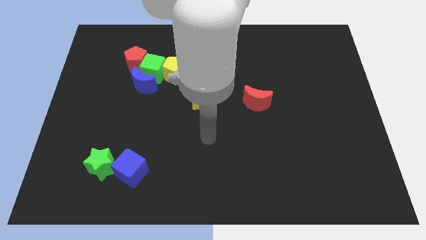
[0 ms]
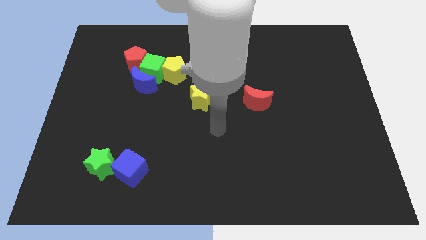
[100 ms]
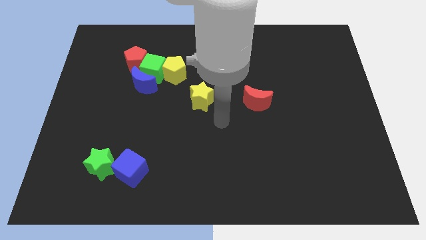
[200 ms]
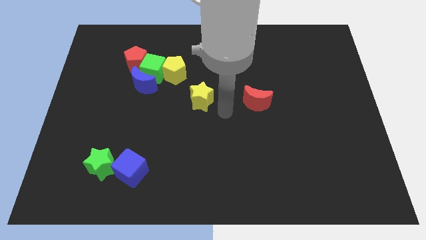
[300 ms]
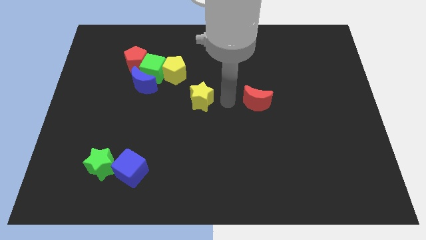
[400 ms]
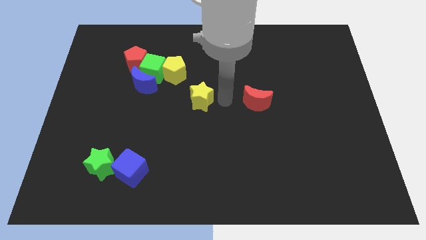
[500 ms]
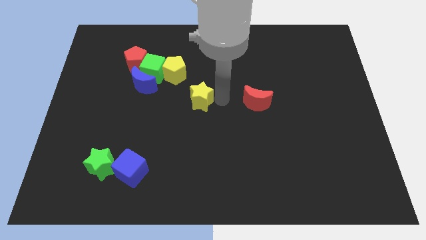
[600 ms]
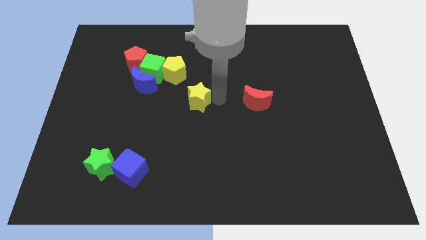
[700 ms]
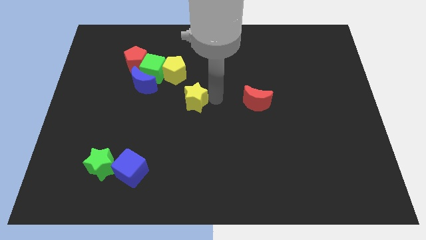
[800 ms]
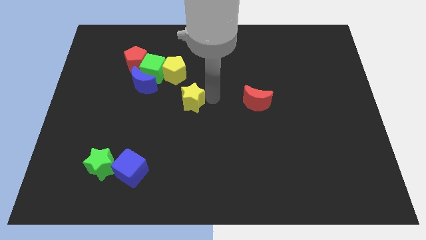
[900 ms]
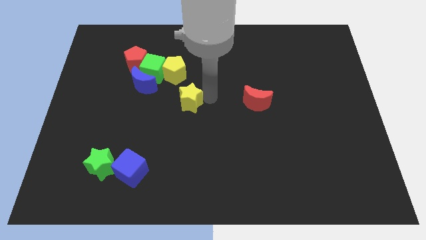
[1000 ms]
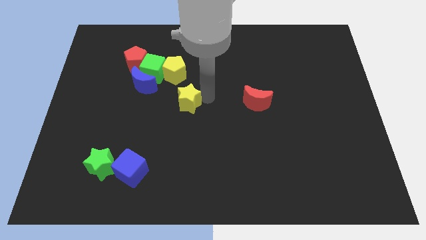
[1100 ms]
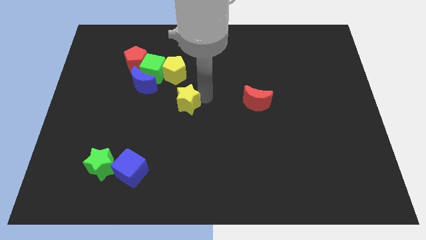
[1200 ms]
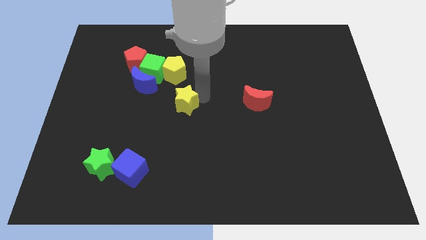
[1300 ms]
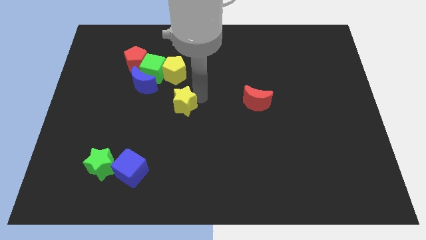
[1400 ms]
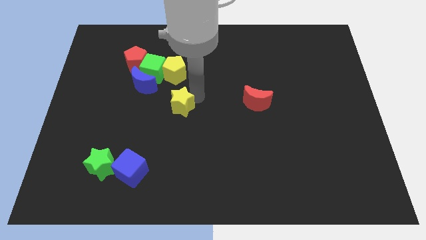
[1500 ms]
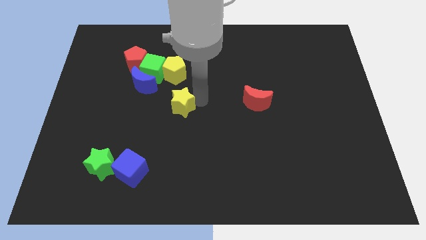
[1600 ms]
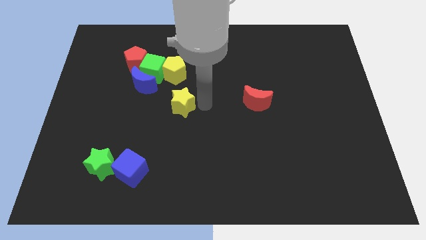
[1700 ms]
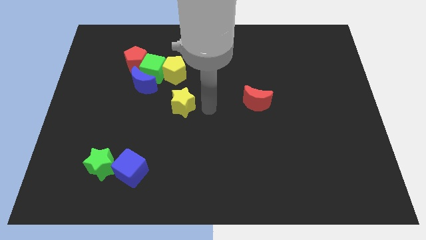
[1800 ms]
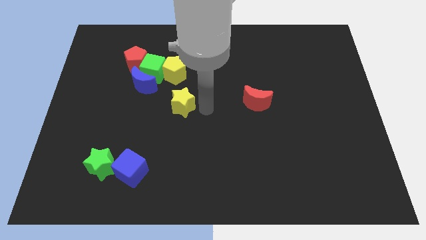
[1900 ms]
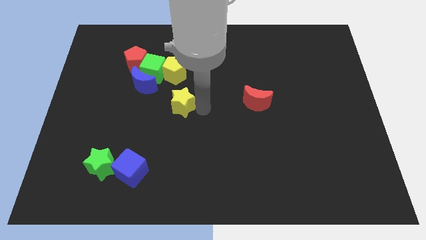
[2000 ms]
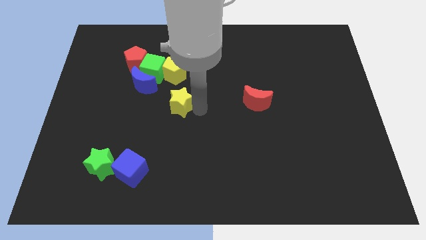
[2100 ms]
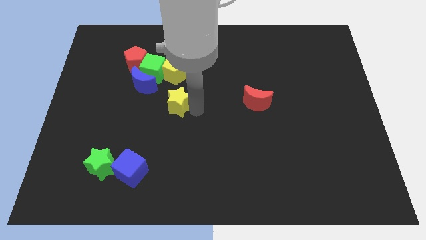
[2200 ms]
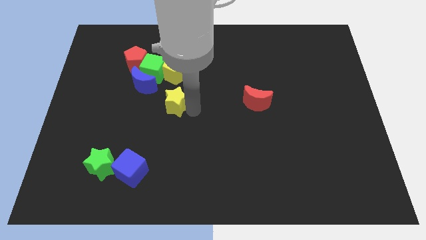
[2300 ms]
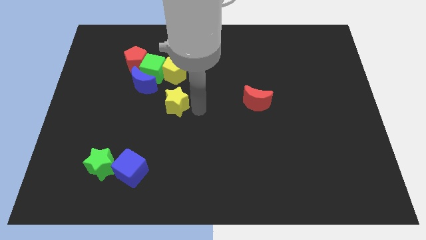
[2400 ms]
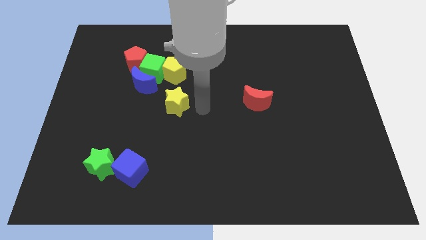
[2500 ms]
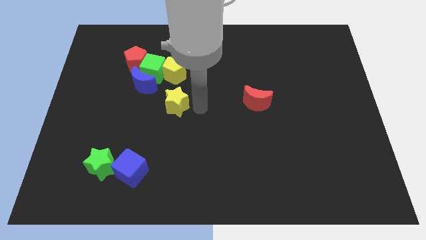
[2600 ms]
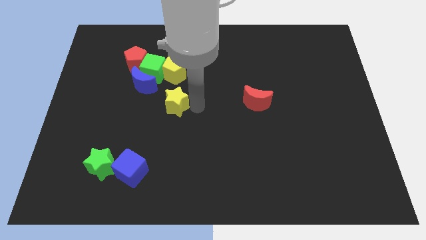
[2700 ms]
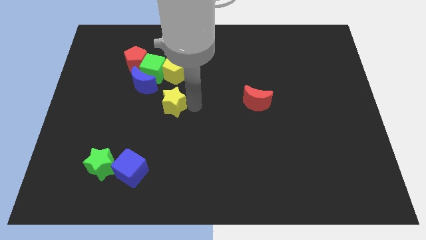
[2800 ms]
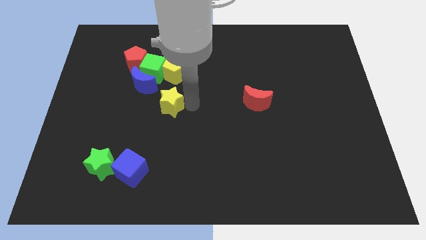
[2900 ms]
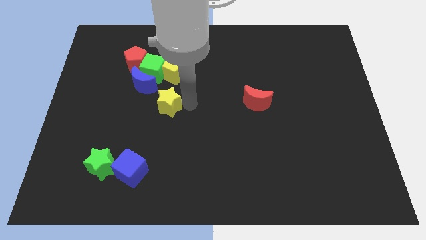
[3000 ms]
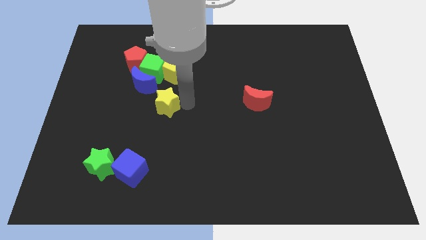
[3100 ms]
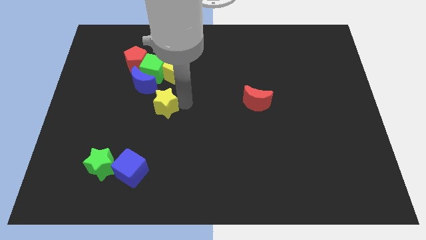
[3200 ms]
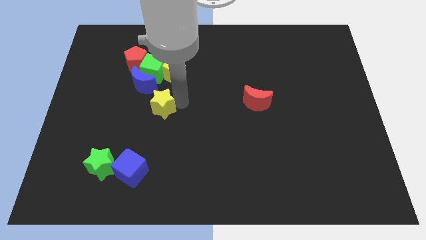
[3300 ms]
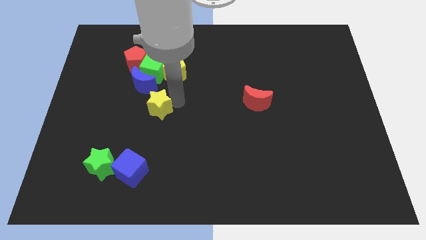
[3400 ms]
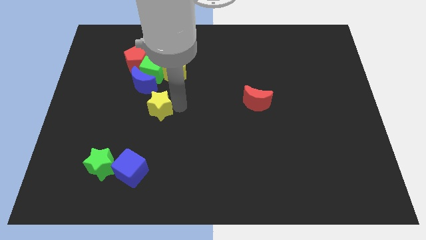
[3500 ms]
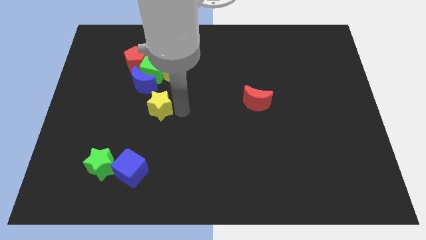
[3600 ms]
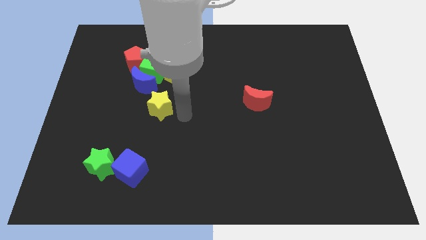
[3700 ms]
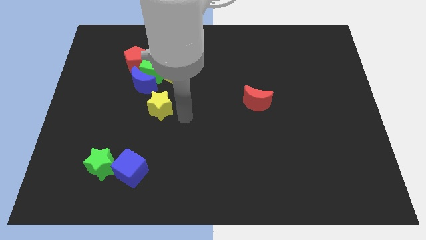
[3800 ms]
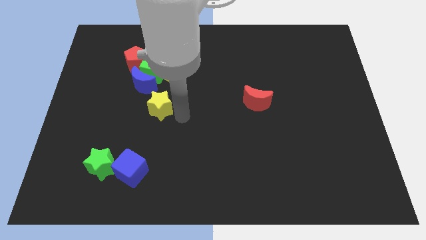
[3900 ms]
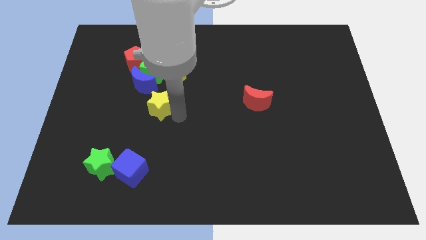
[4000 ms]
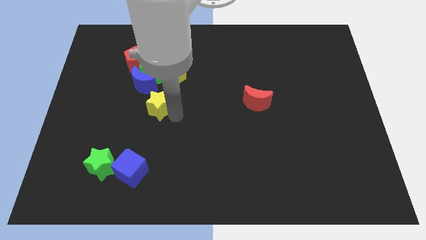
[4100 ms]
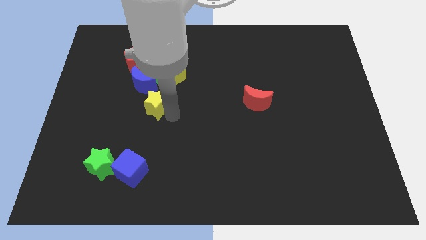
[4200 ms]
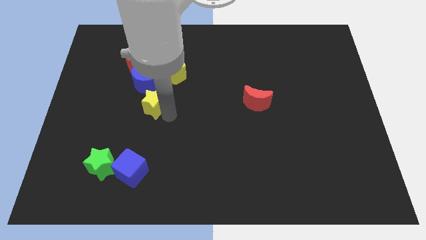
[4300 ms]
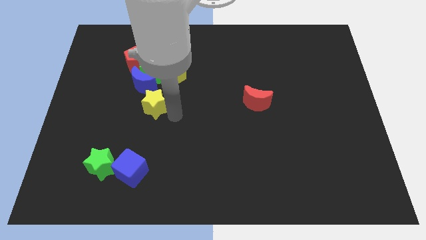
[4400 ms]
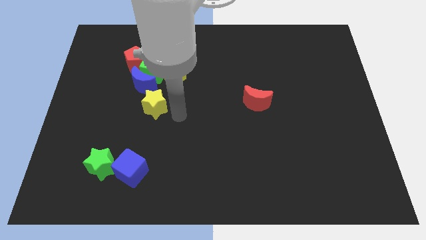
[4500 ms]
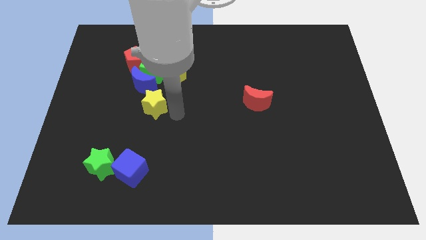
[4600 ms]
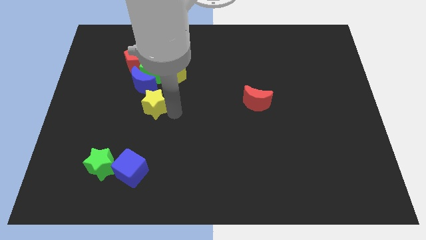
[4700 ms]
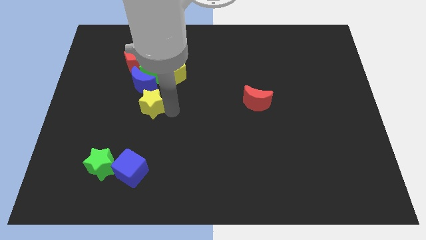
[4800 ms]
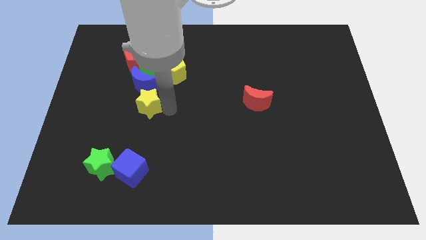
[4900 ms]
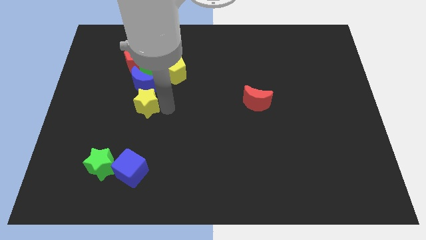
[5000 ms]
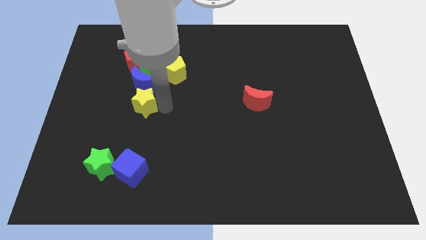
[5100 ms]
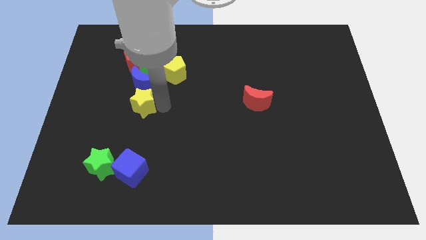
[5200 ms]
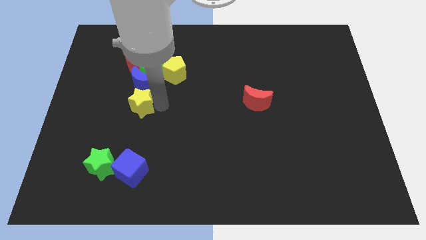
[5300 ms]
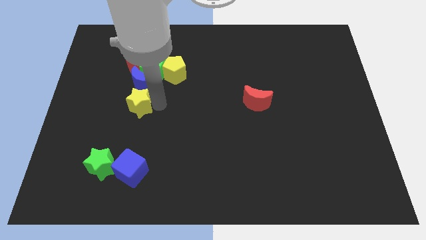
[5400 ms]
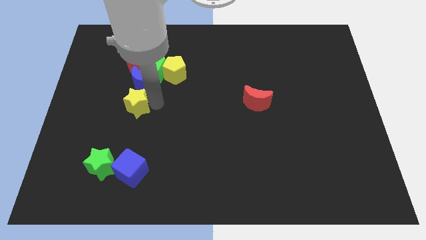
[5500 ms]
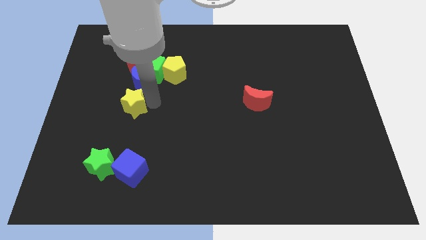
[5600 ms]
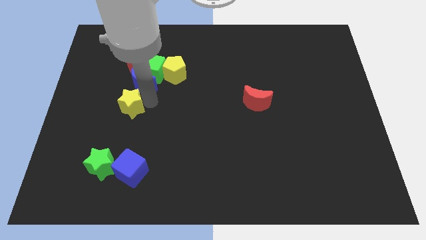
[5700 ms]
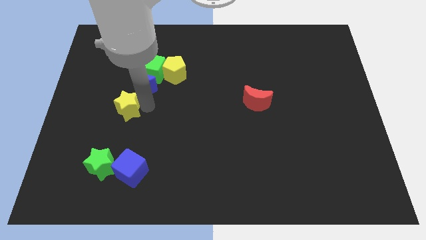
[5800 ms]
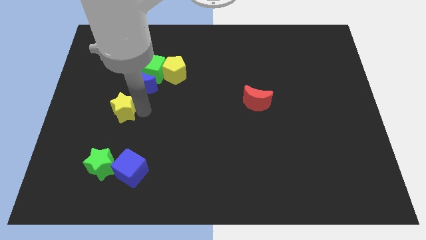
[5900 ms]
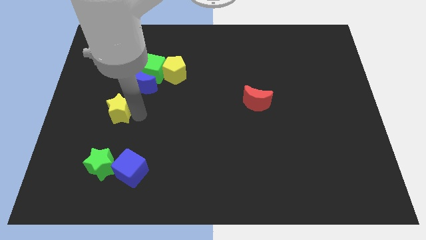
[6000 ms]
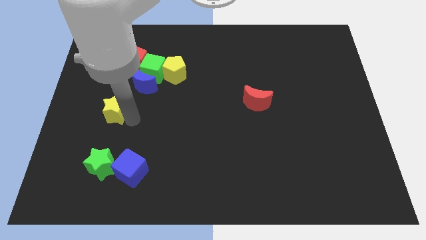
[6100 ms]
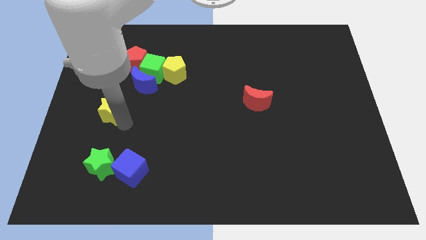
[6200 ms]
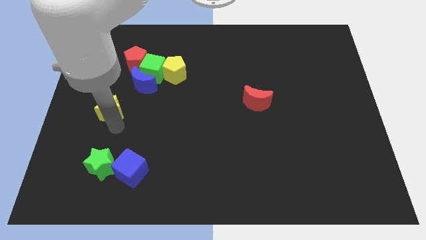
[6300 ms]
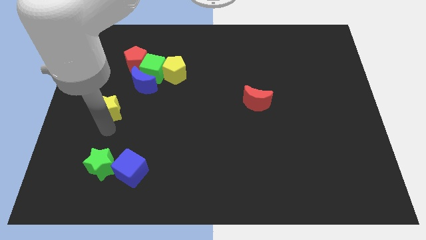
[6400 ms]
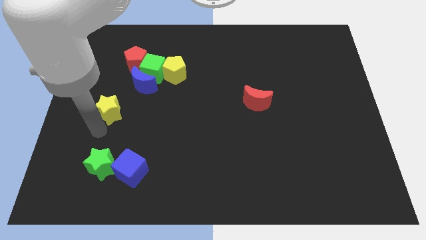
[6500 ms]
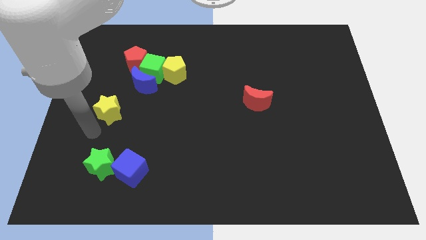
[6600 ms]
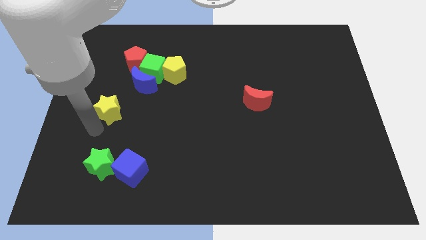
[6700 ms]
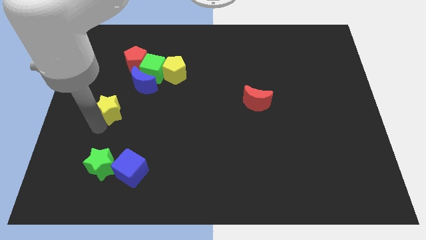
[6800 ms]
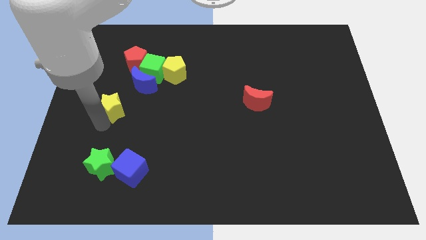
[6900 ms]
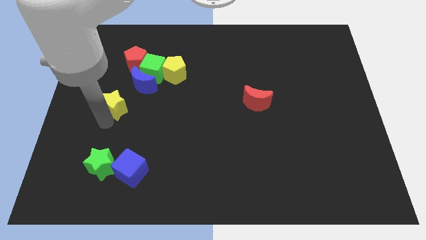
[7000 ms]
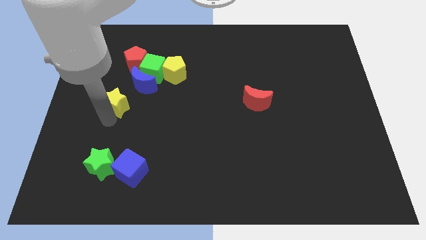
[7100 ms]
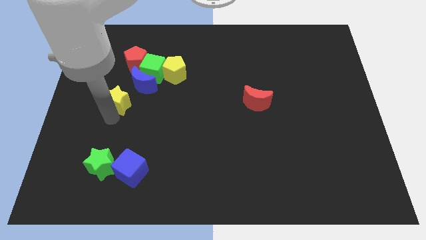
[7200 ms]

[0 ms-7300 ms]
push the yellow star to the bottom left of the green cube

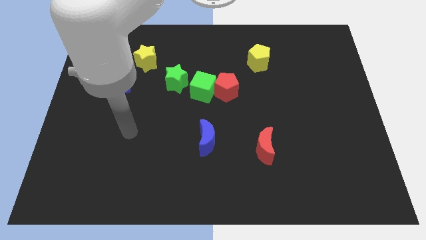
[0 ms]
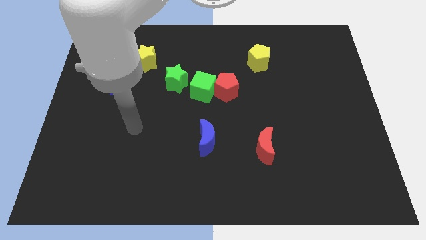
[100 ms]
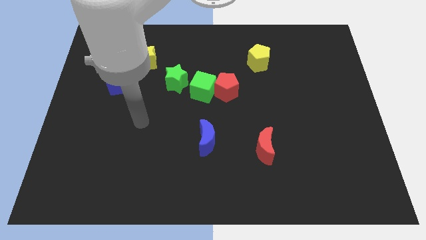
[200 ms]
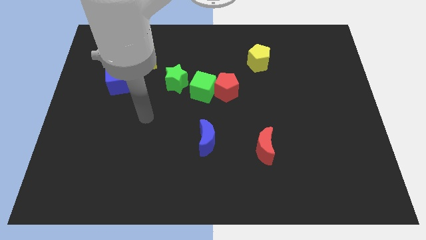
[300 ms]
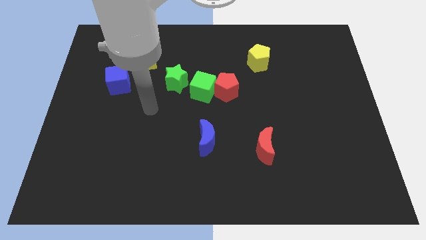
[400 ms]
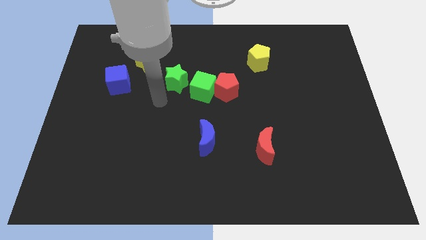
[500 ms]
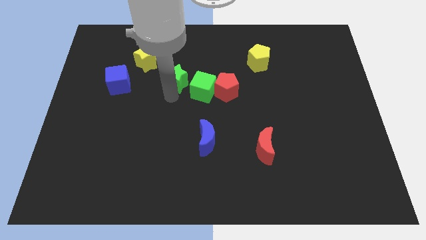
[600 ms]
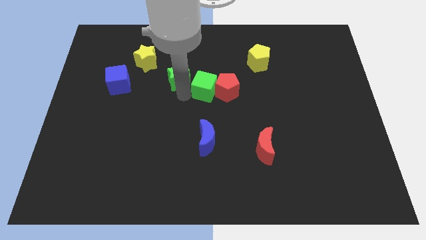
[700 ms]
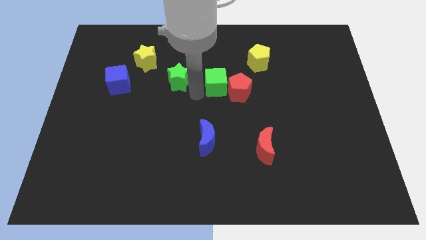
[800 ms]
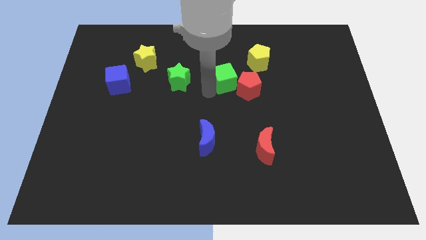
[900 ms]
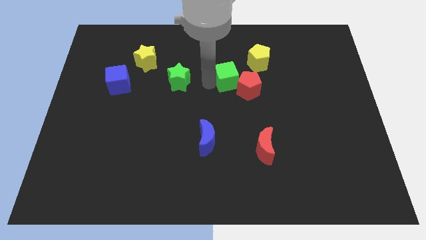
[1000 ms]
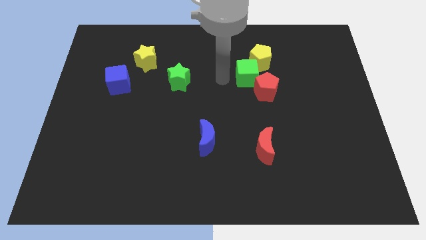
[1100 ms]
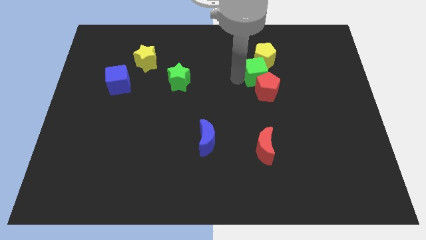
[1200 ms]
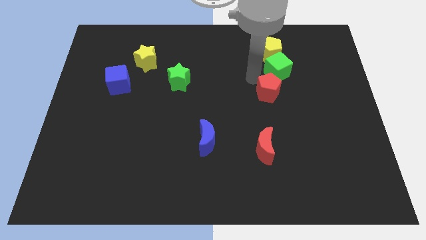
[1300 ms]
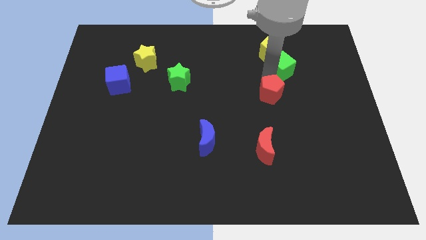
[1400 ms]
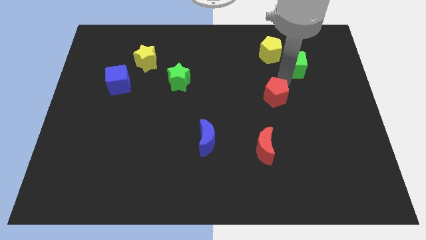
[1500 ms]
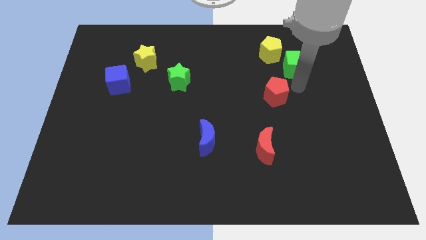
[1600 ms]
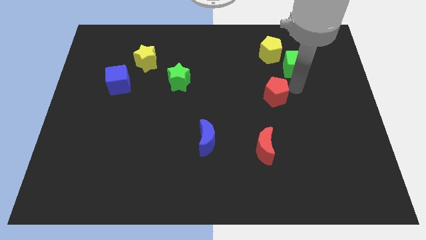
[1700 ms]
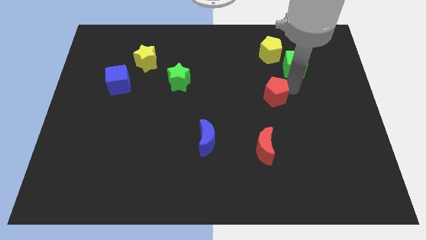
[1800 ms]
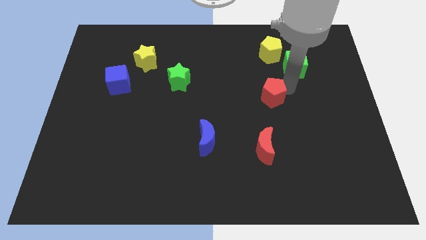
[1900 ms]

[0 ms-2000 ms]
push the red pentagon above the red moon
